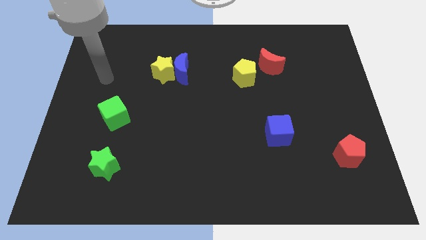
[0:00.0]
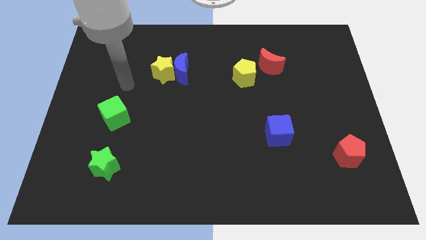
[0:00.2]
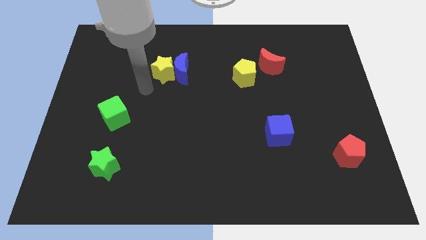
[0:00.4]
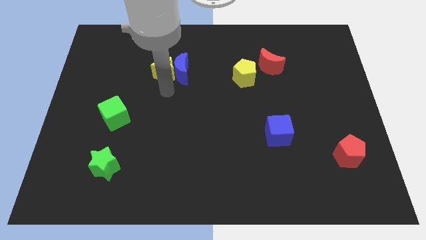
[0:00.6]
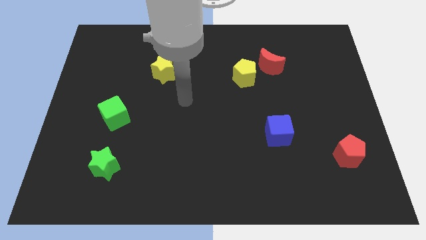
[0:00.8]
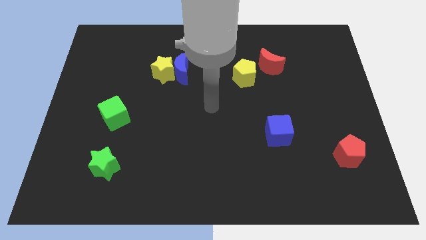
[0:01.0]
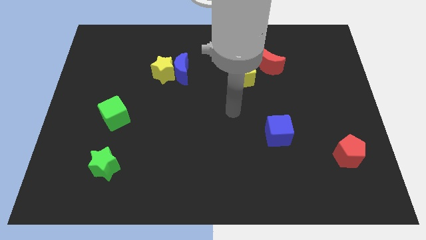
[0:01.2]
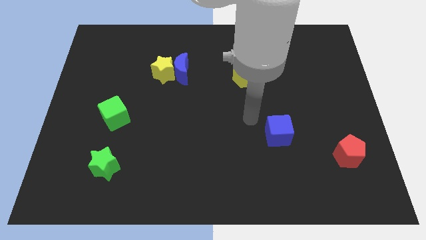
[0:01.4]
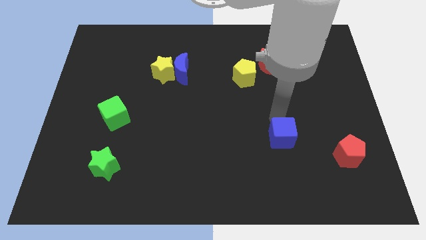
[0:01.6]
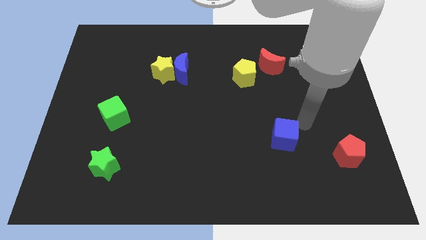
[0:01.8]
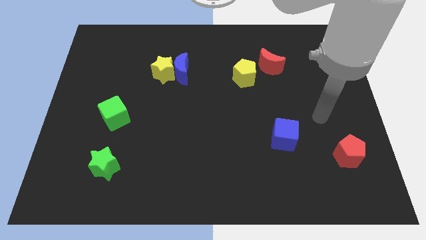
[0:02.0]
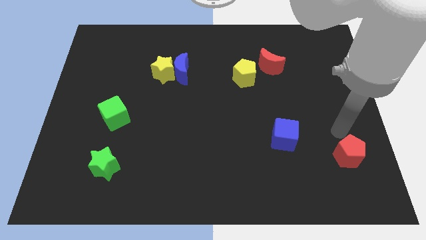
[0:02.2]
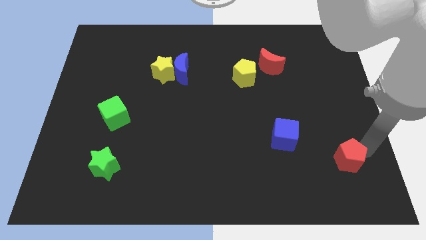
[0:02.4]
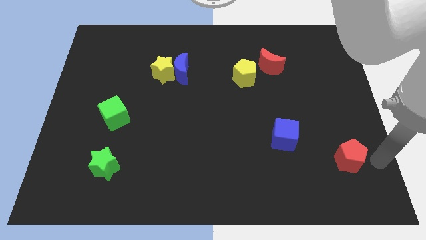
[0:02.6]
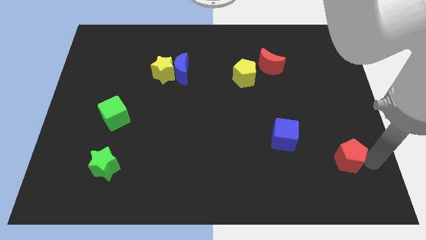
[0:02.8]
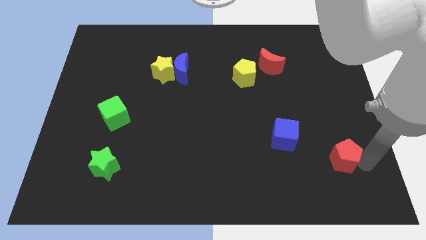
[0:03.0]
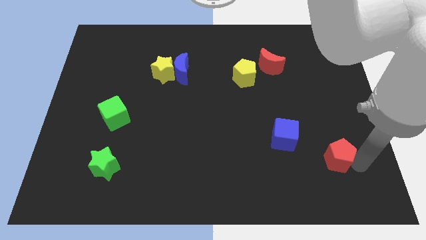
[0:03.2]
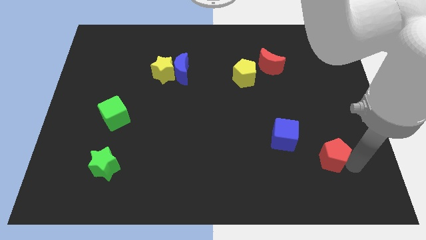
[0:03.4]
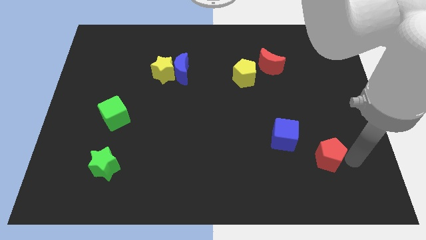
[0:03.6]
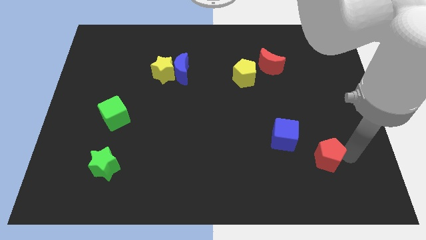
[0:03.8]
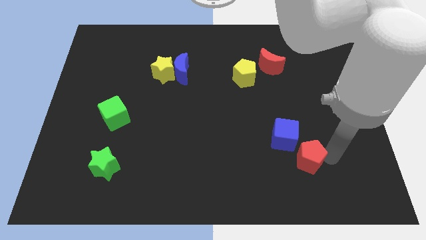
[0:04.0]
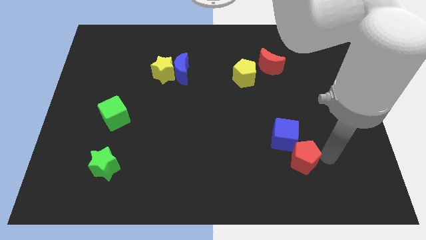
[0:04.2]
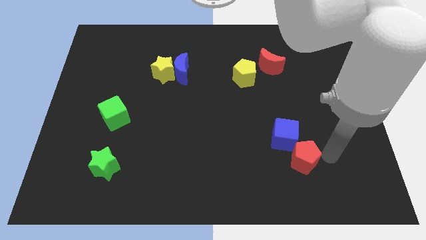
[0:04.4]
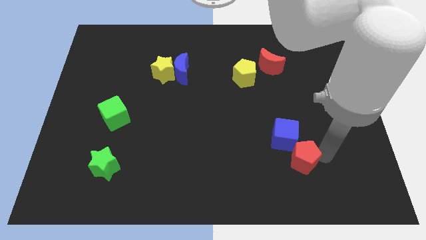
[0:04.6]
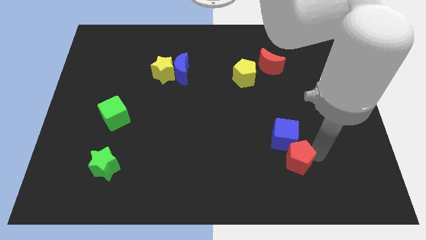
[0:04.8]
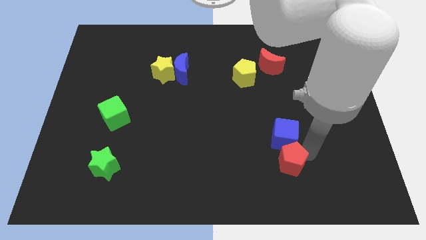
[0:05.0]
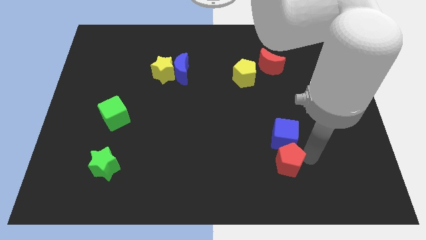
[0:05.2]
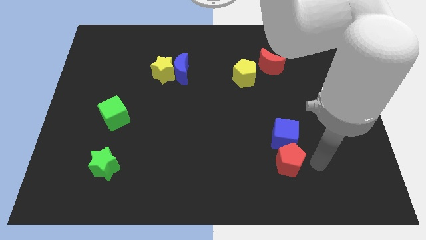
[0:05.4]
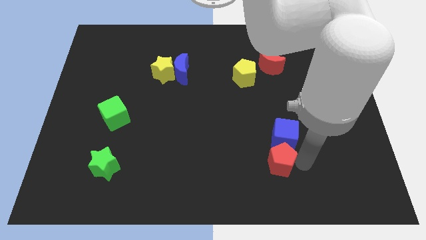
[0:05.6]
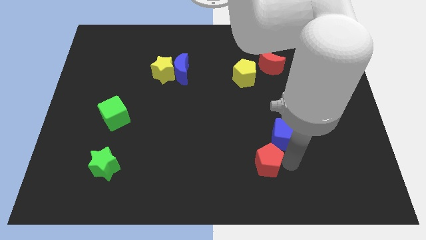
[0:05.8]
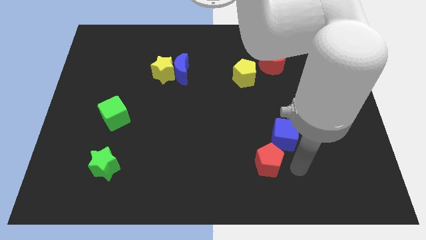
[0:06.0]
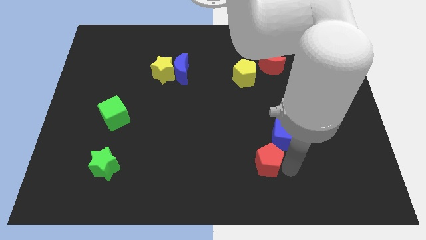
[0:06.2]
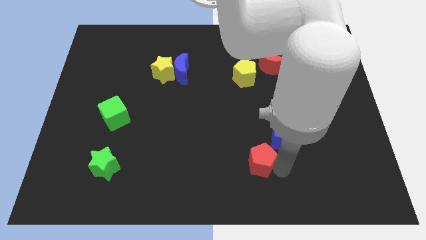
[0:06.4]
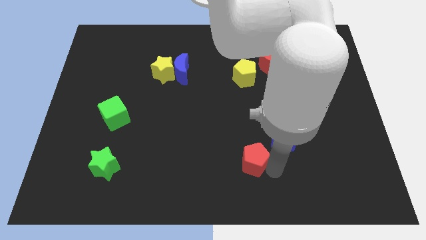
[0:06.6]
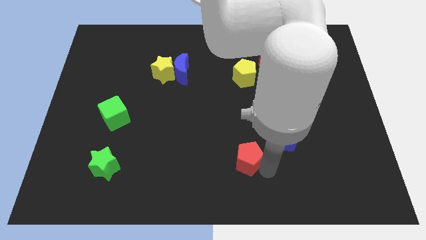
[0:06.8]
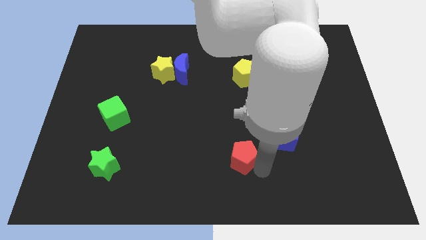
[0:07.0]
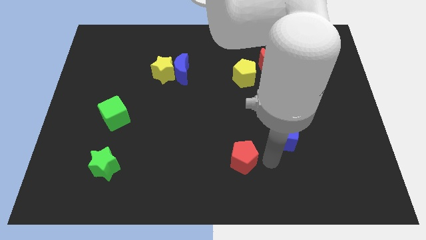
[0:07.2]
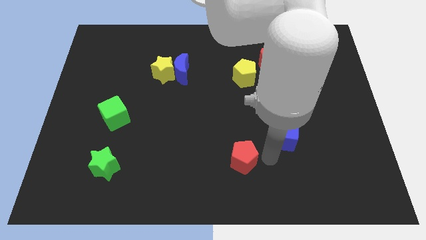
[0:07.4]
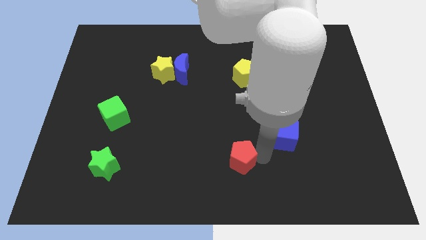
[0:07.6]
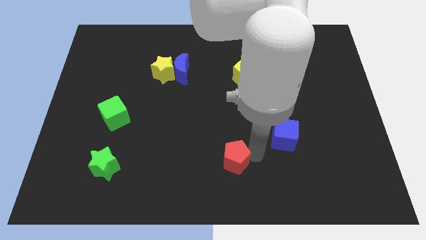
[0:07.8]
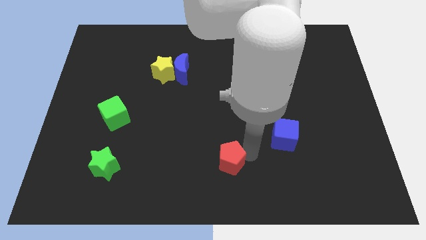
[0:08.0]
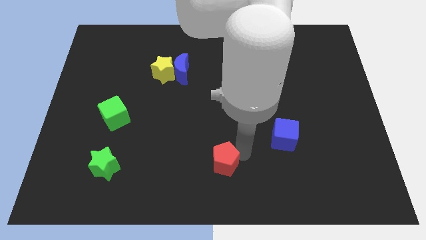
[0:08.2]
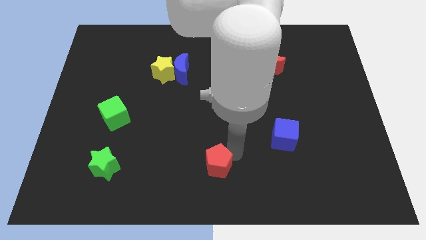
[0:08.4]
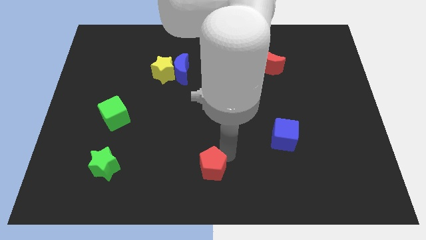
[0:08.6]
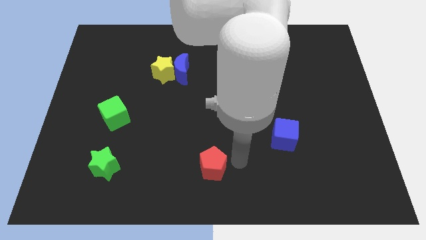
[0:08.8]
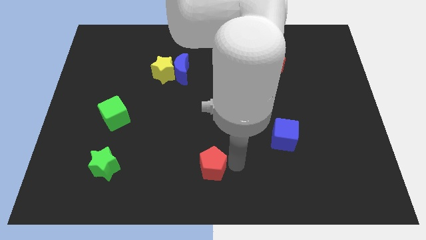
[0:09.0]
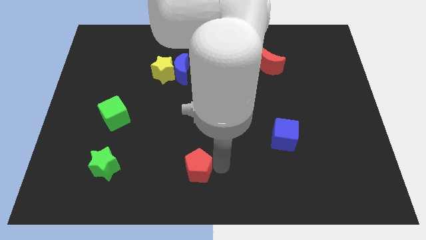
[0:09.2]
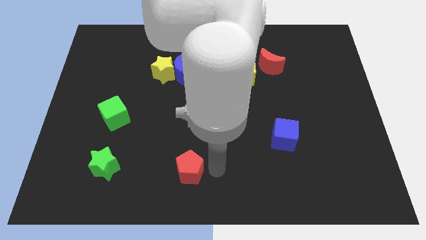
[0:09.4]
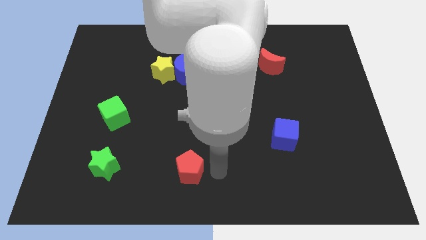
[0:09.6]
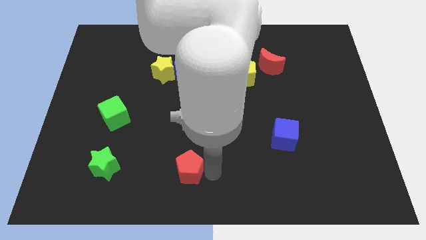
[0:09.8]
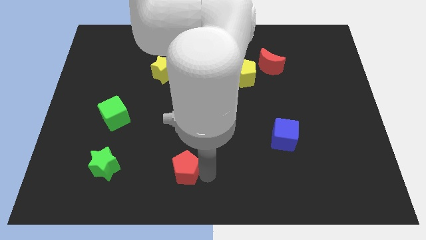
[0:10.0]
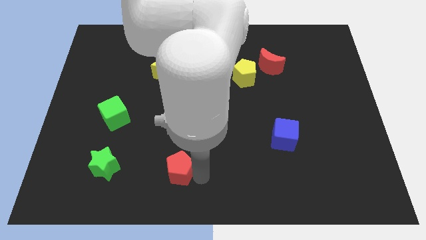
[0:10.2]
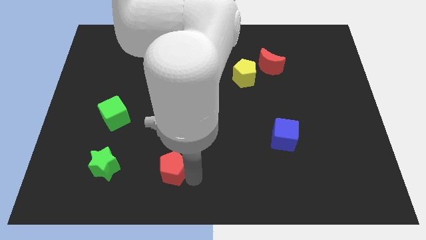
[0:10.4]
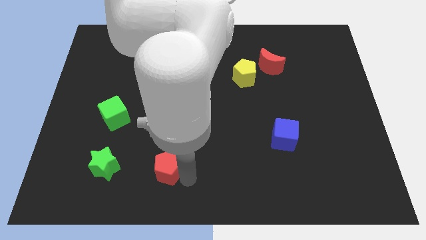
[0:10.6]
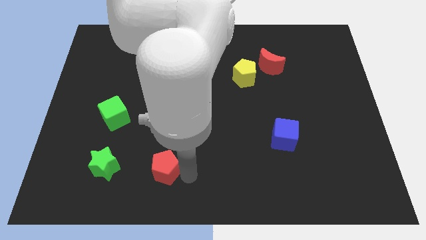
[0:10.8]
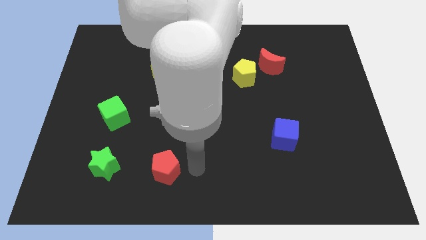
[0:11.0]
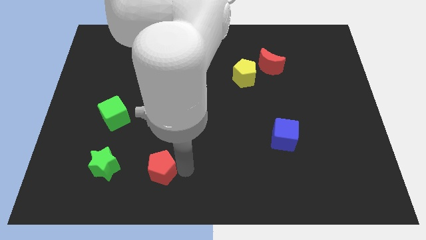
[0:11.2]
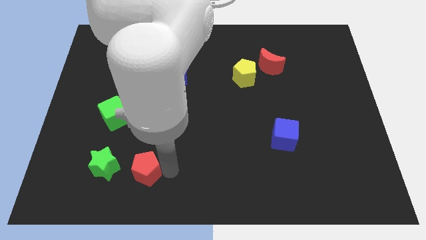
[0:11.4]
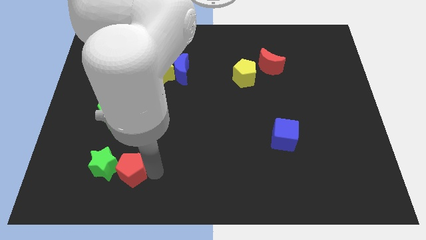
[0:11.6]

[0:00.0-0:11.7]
push the red pentagon towards the green star

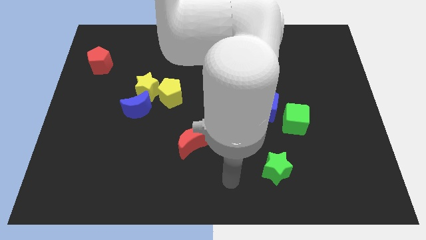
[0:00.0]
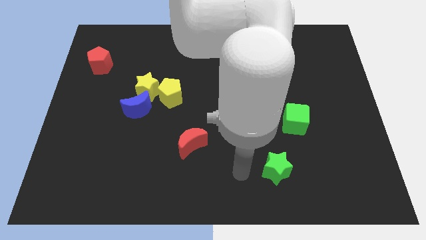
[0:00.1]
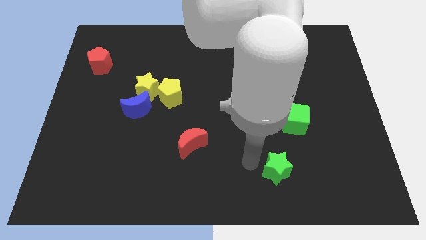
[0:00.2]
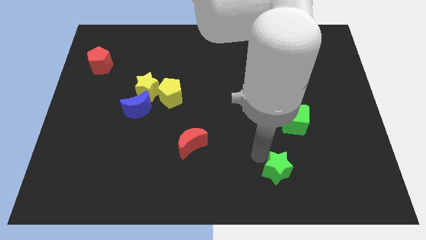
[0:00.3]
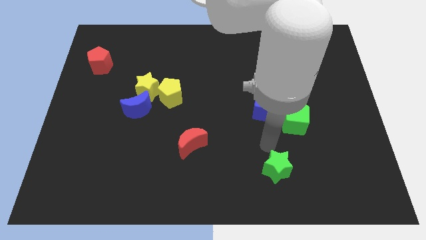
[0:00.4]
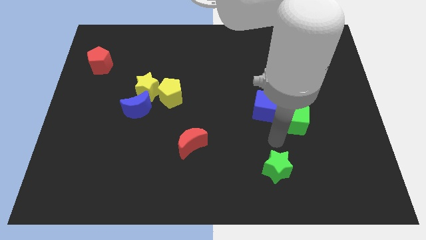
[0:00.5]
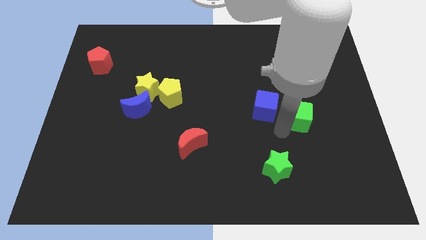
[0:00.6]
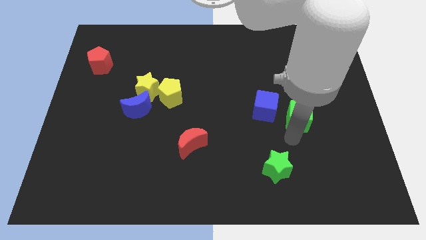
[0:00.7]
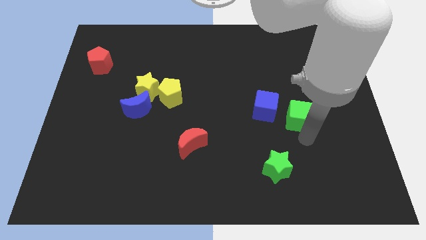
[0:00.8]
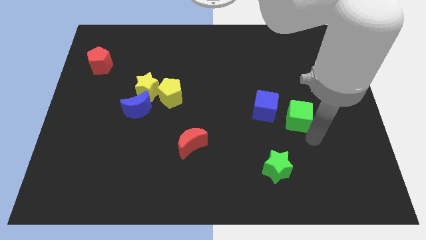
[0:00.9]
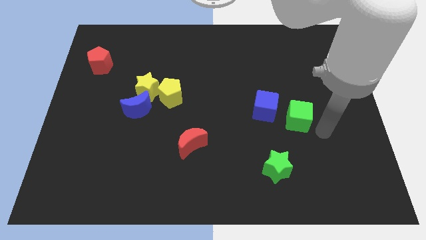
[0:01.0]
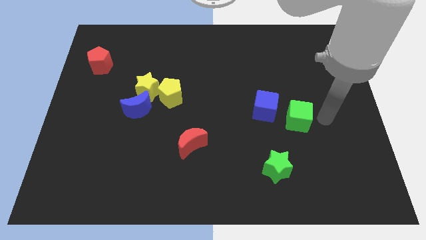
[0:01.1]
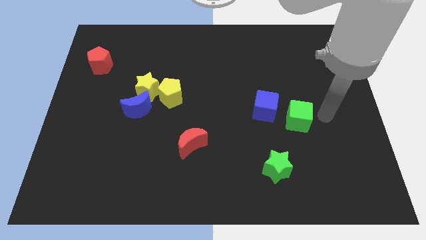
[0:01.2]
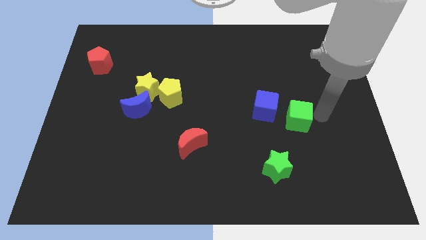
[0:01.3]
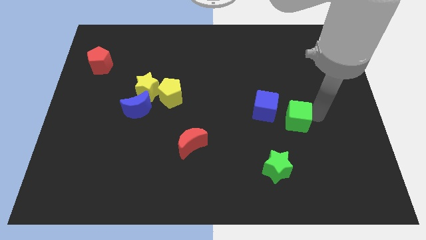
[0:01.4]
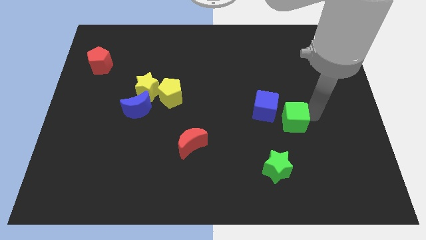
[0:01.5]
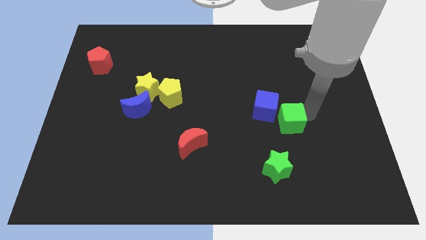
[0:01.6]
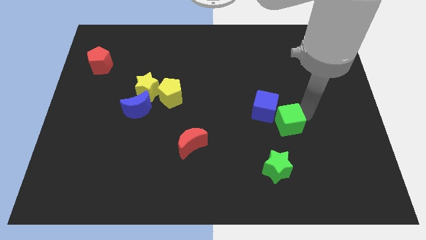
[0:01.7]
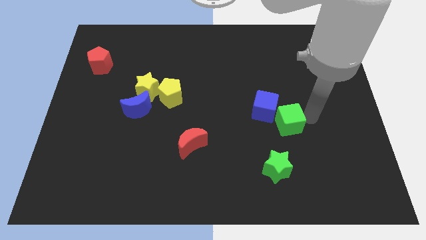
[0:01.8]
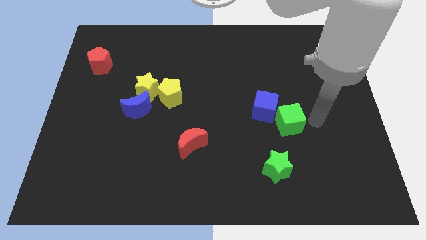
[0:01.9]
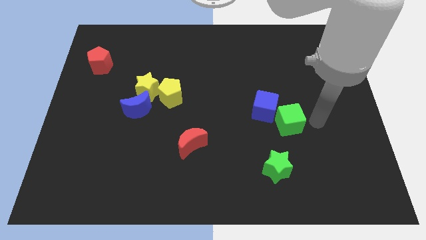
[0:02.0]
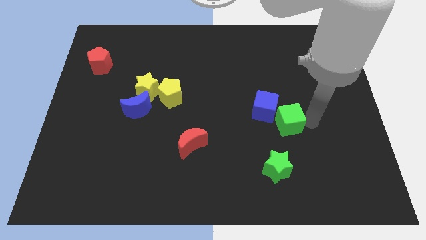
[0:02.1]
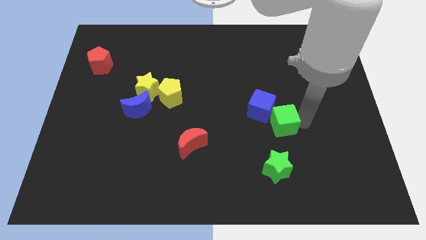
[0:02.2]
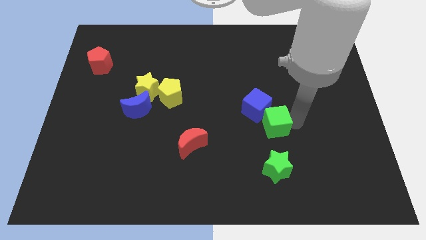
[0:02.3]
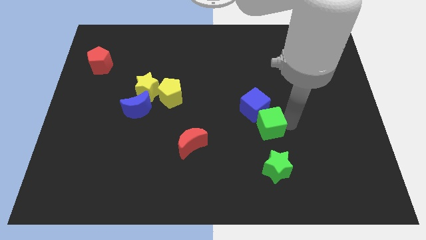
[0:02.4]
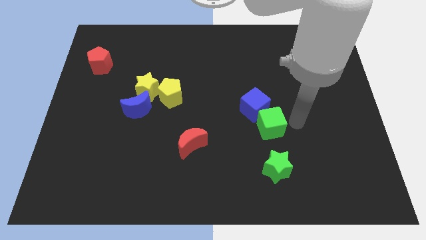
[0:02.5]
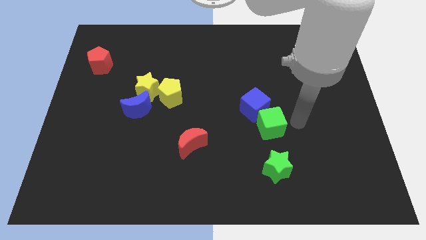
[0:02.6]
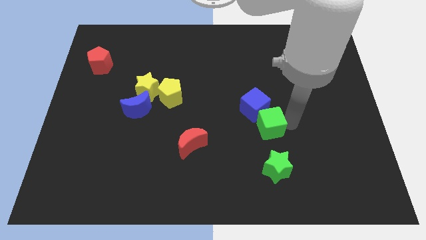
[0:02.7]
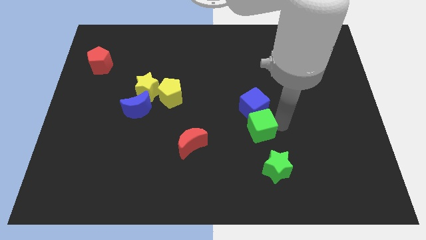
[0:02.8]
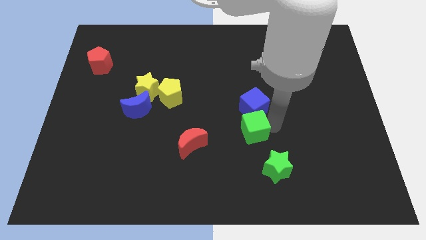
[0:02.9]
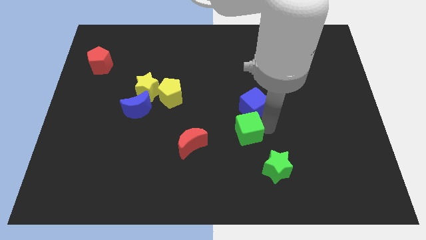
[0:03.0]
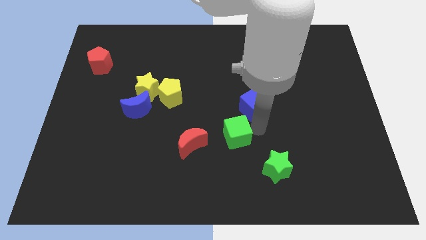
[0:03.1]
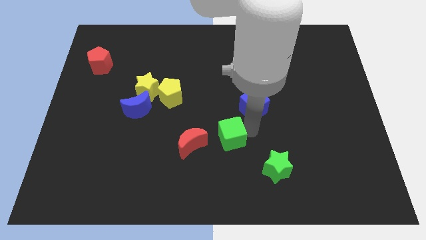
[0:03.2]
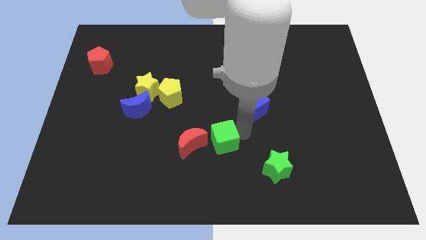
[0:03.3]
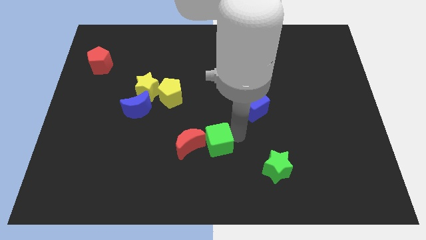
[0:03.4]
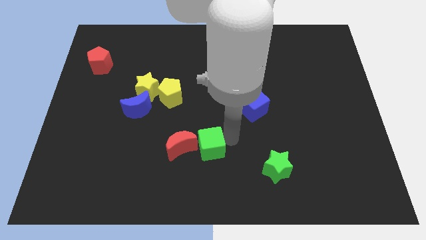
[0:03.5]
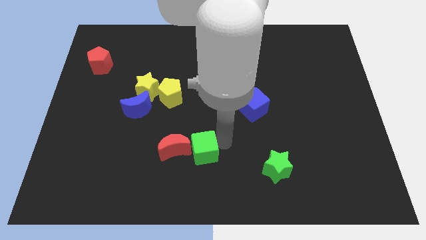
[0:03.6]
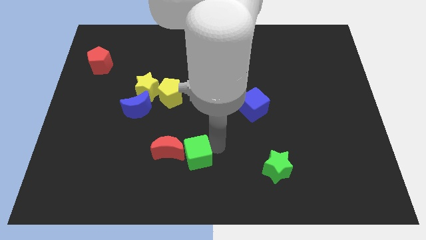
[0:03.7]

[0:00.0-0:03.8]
slide the green cube to the red moon
